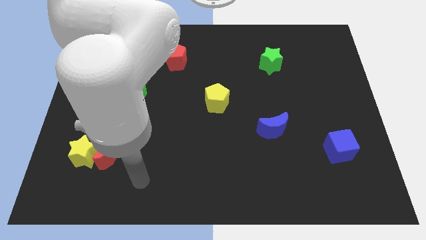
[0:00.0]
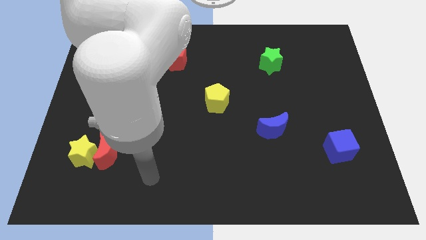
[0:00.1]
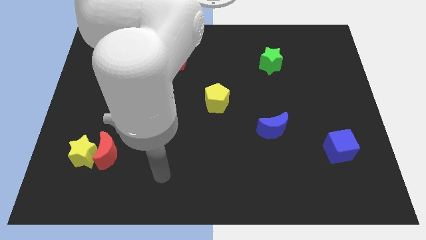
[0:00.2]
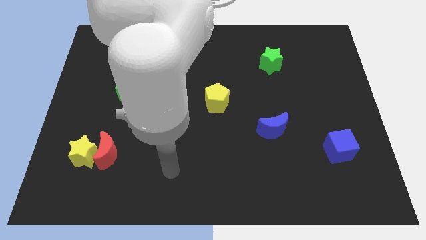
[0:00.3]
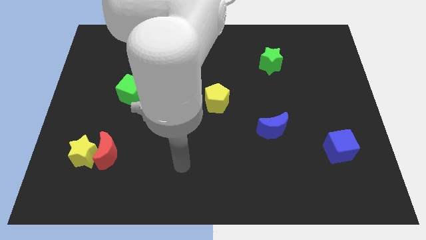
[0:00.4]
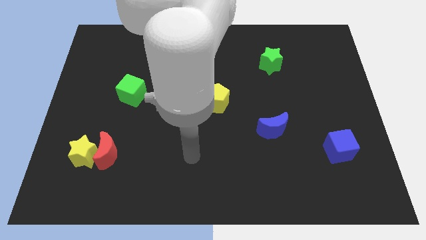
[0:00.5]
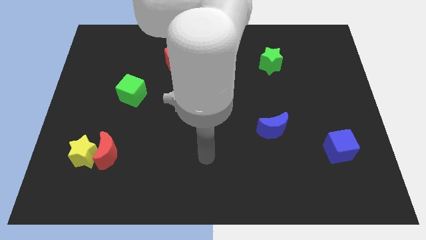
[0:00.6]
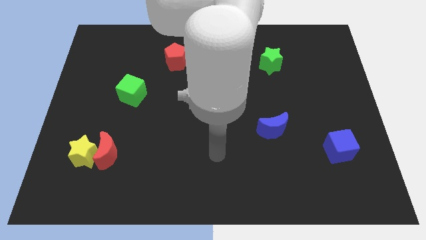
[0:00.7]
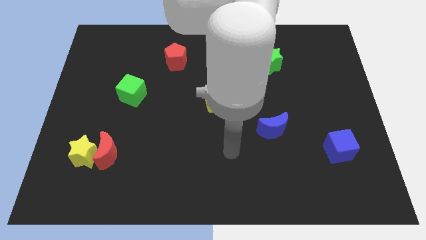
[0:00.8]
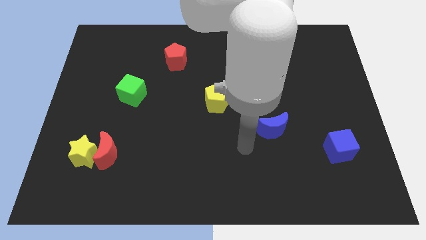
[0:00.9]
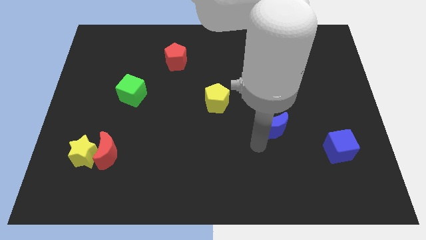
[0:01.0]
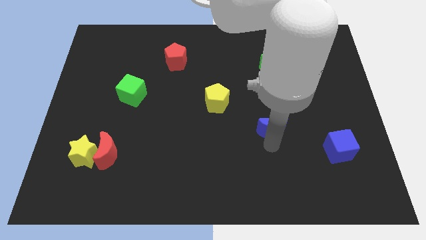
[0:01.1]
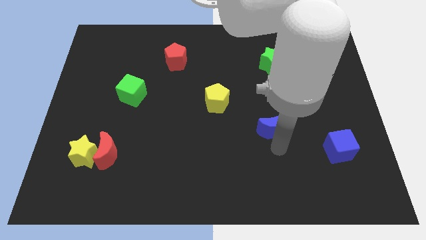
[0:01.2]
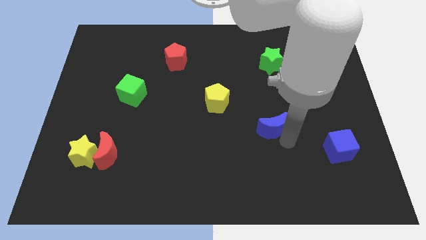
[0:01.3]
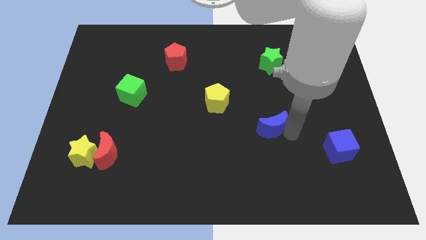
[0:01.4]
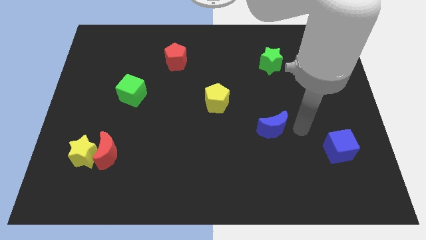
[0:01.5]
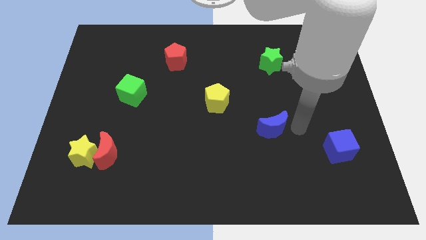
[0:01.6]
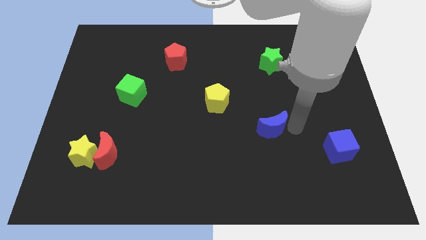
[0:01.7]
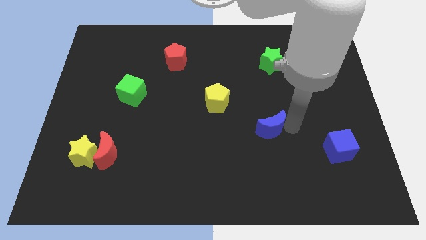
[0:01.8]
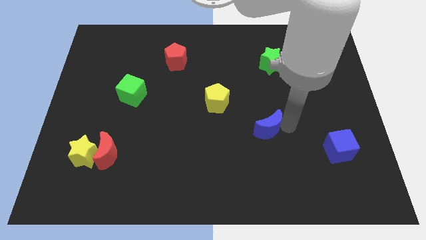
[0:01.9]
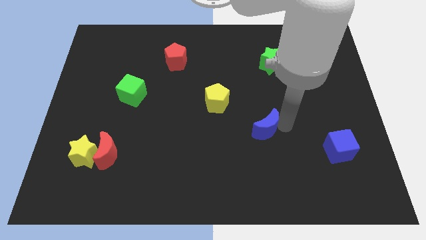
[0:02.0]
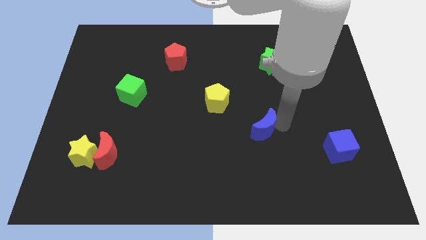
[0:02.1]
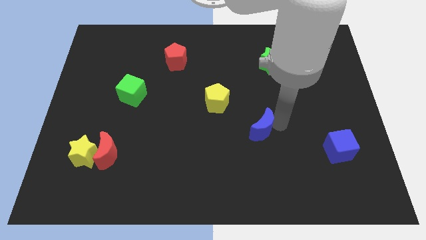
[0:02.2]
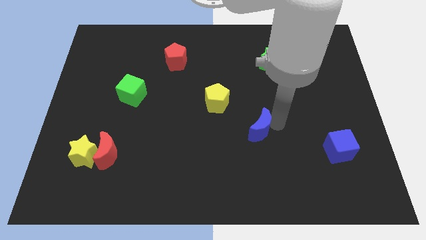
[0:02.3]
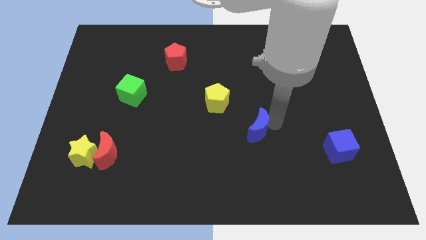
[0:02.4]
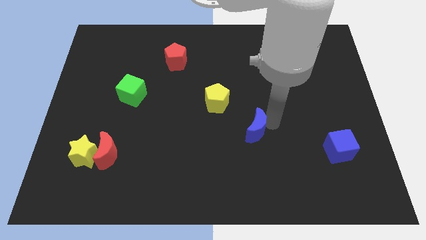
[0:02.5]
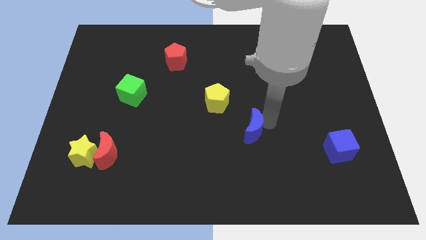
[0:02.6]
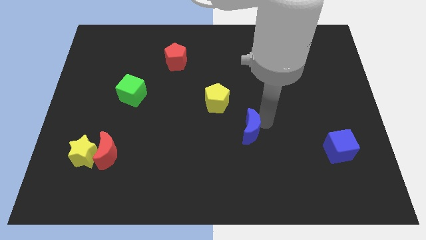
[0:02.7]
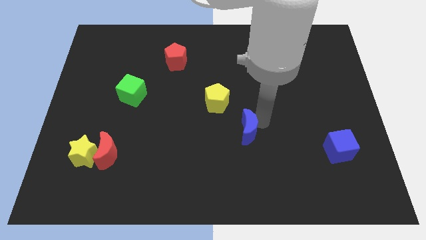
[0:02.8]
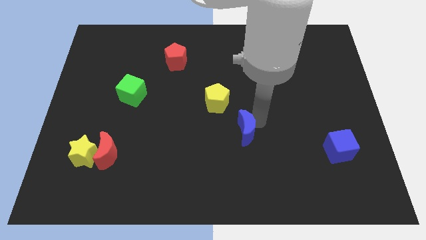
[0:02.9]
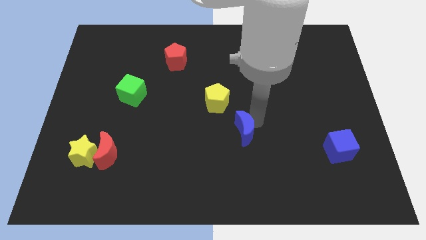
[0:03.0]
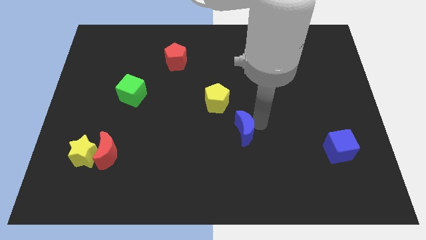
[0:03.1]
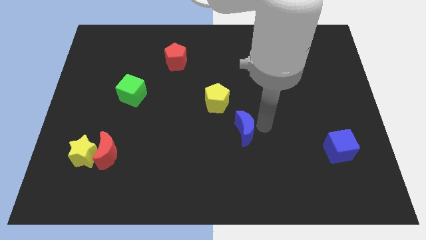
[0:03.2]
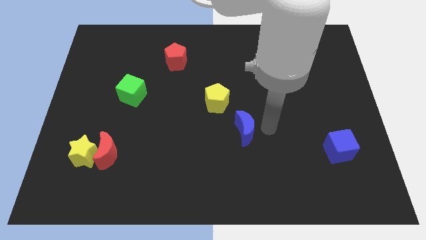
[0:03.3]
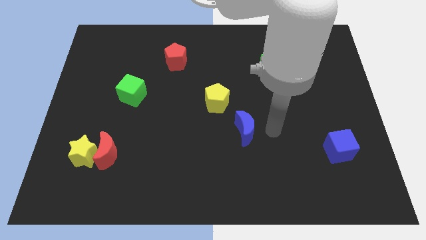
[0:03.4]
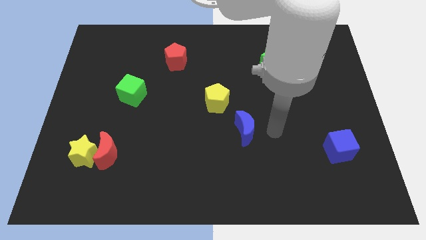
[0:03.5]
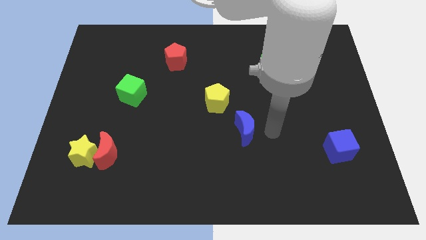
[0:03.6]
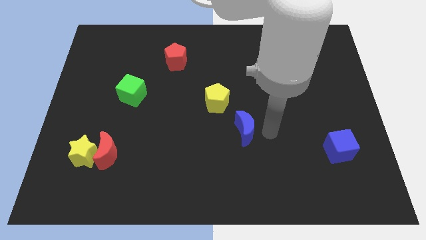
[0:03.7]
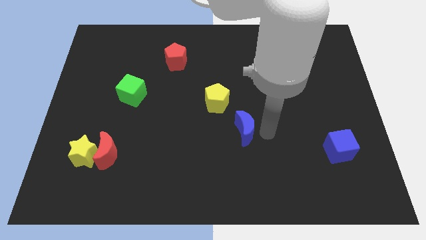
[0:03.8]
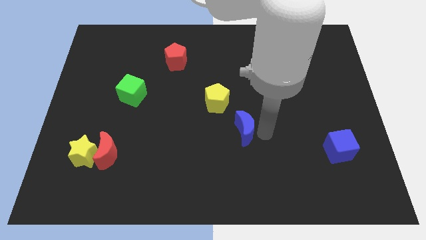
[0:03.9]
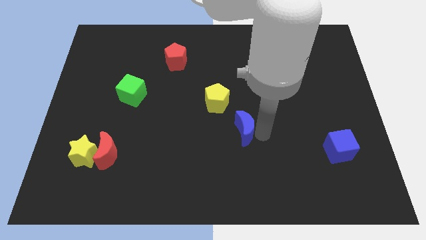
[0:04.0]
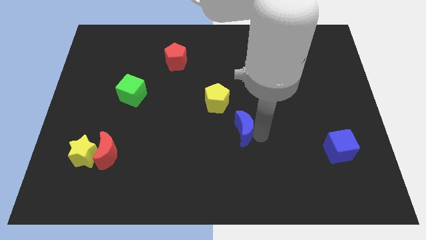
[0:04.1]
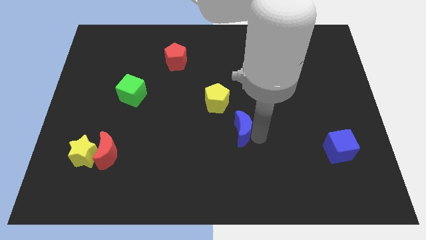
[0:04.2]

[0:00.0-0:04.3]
move the blue moon to the left a little

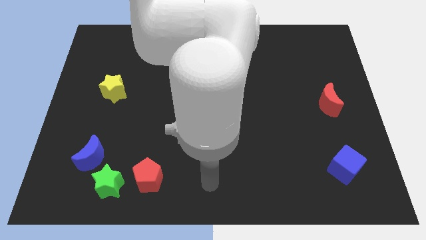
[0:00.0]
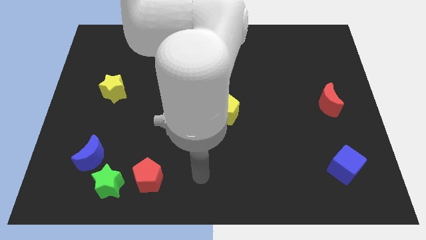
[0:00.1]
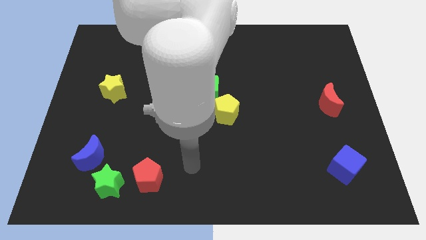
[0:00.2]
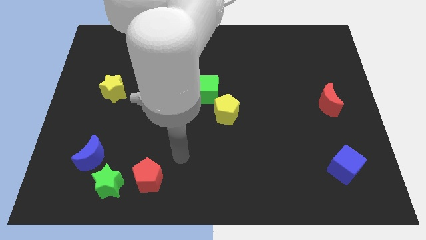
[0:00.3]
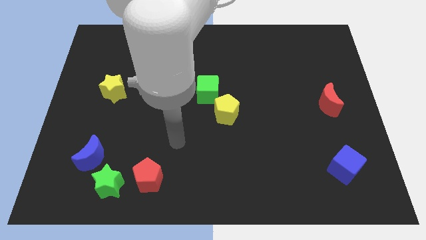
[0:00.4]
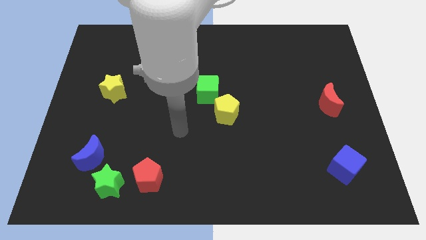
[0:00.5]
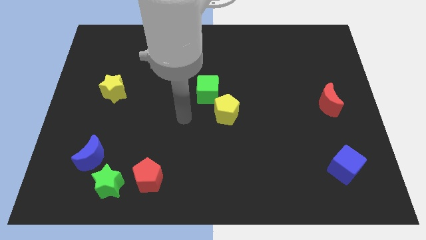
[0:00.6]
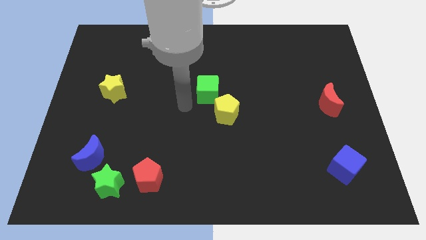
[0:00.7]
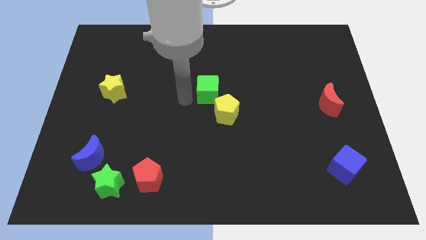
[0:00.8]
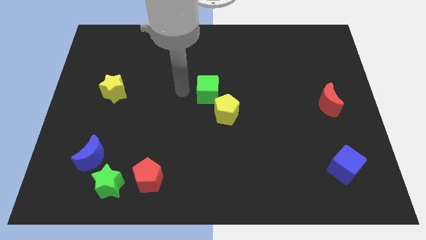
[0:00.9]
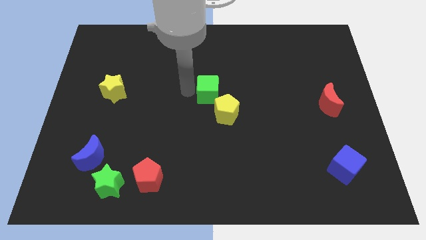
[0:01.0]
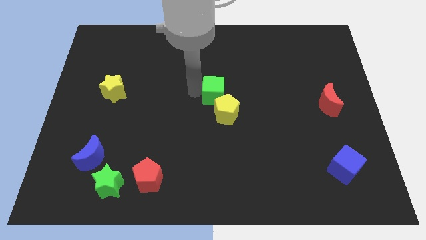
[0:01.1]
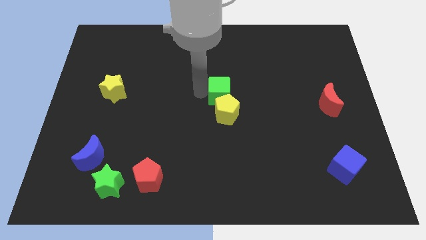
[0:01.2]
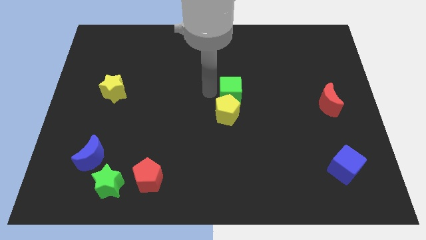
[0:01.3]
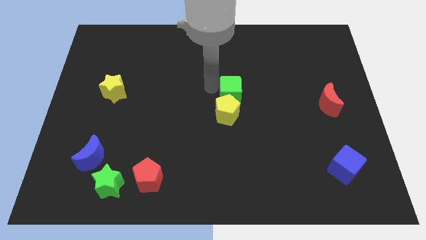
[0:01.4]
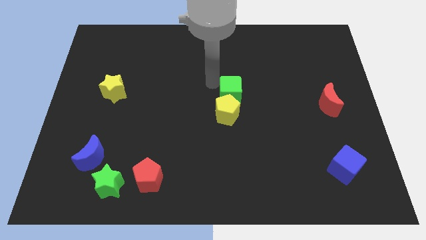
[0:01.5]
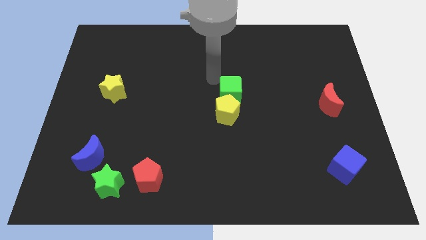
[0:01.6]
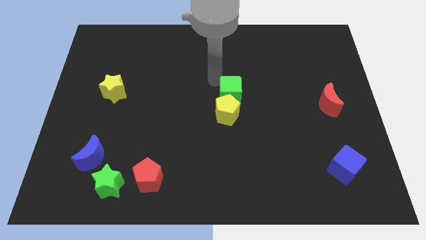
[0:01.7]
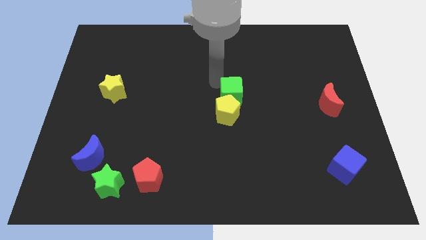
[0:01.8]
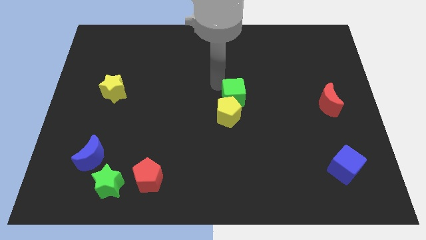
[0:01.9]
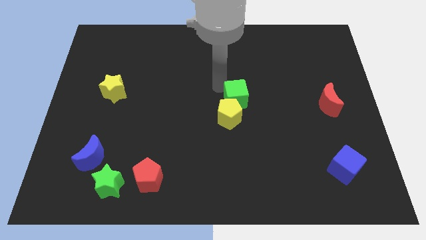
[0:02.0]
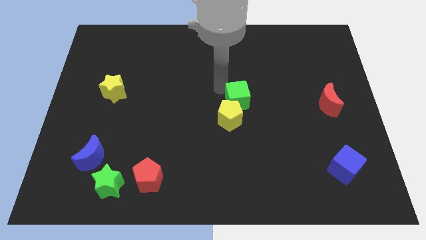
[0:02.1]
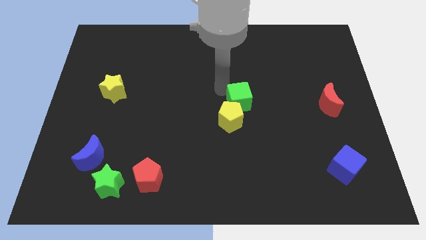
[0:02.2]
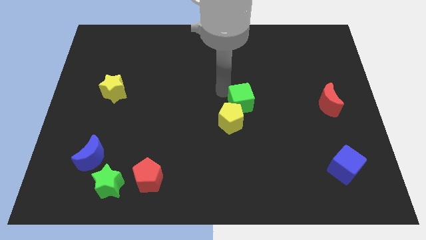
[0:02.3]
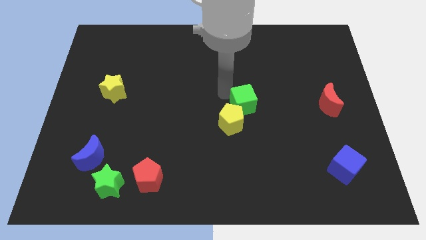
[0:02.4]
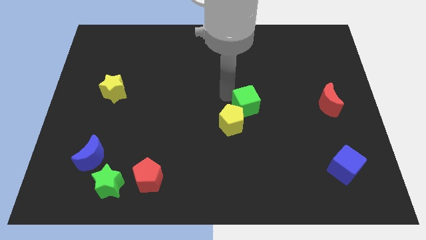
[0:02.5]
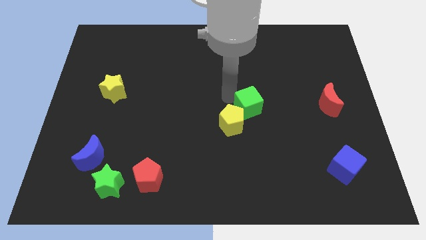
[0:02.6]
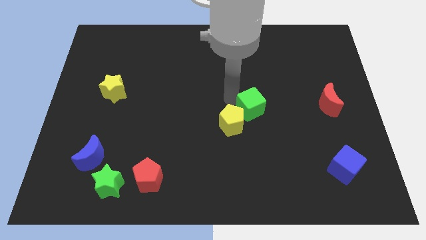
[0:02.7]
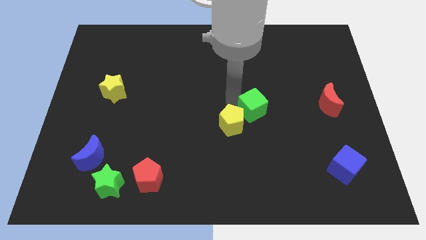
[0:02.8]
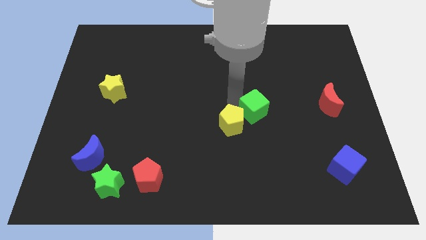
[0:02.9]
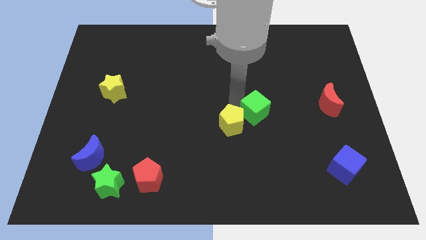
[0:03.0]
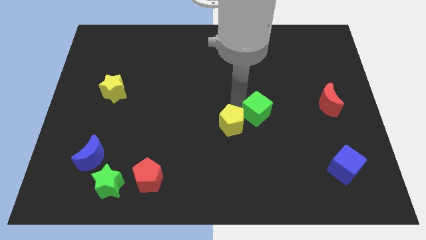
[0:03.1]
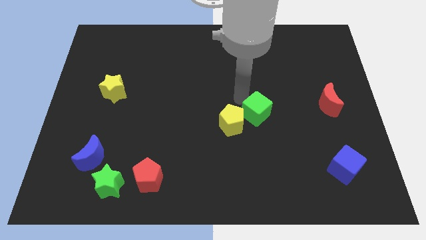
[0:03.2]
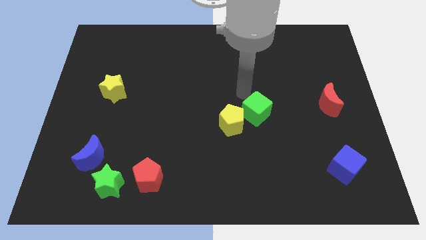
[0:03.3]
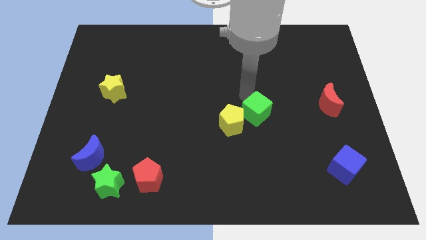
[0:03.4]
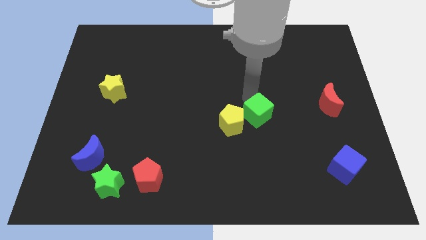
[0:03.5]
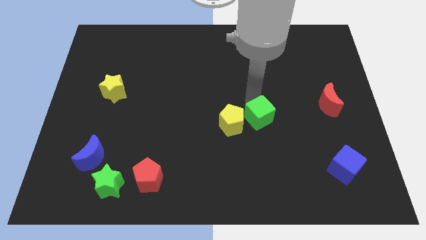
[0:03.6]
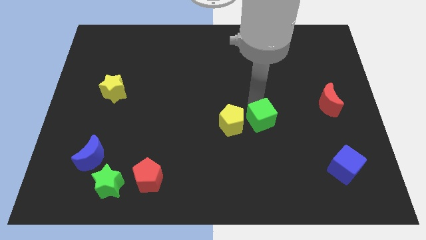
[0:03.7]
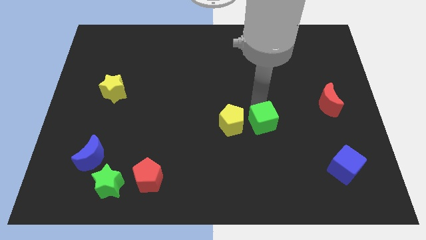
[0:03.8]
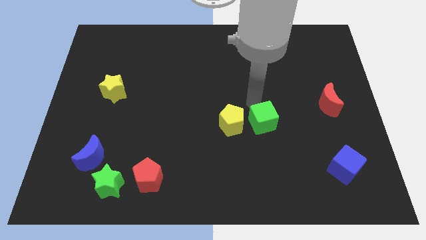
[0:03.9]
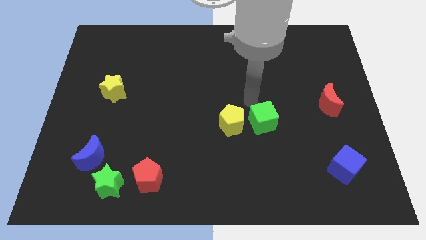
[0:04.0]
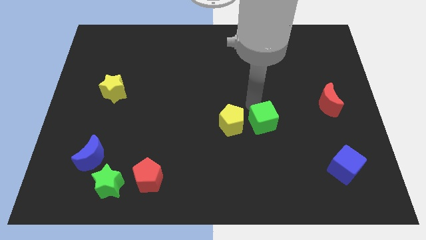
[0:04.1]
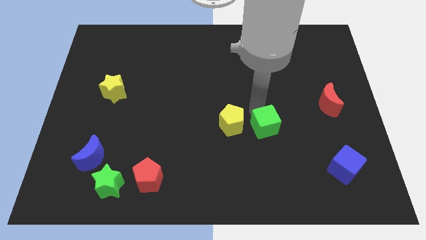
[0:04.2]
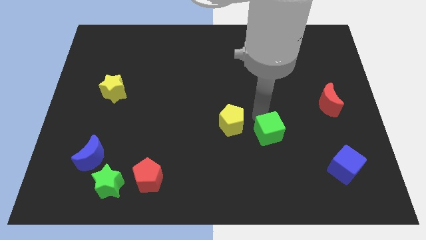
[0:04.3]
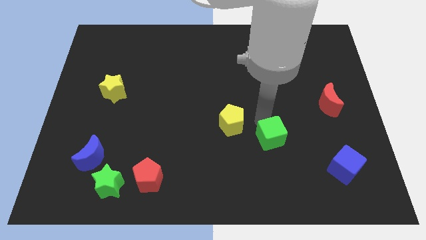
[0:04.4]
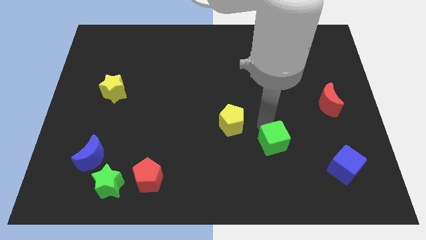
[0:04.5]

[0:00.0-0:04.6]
slide the green cube down and right
